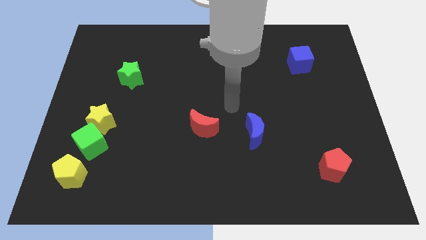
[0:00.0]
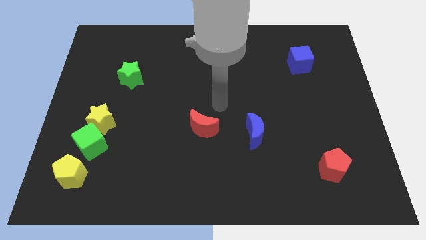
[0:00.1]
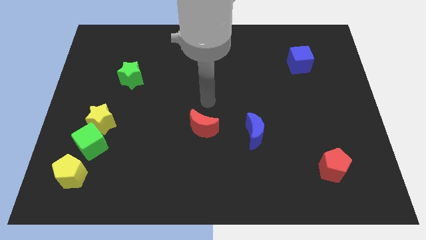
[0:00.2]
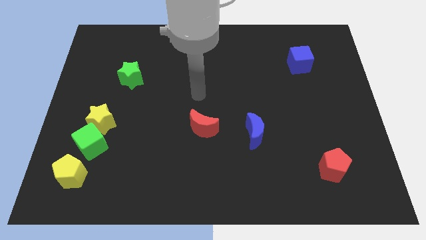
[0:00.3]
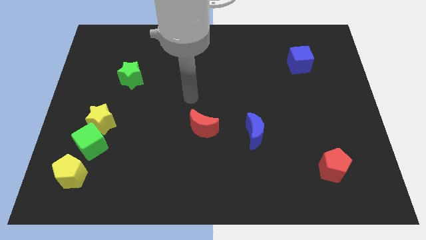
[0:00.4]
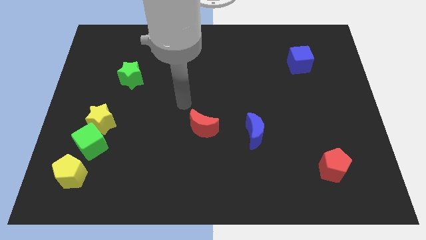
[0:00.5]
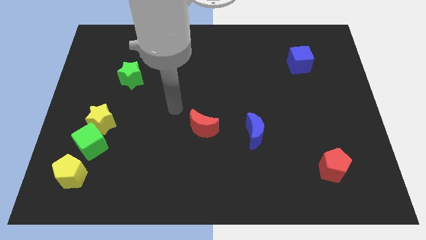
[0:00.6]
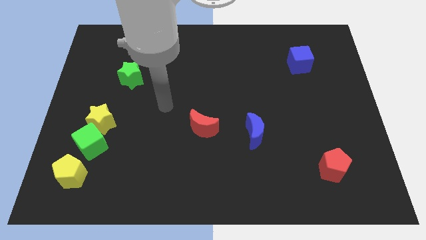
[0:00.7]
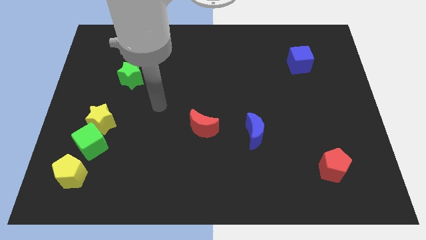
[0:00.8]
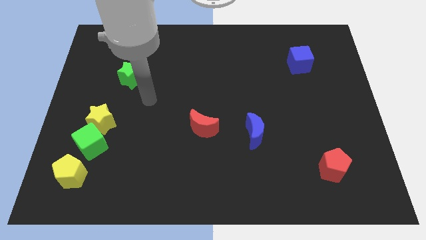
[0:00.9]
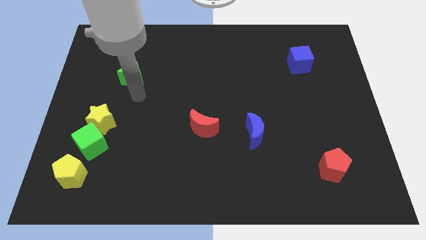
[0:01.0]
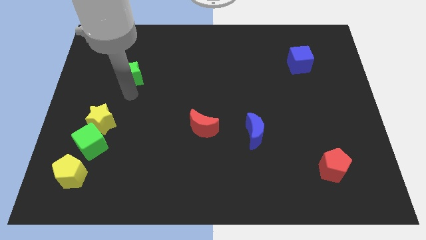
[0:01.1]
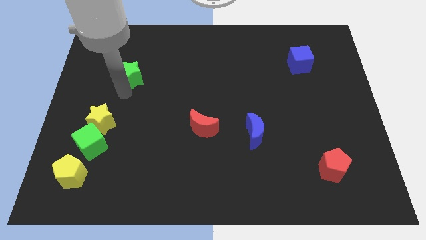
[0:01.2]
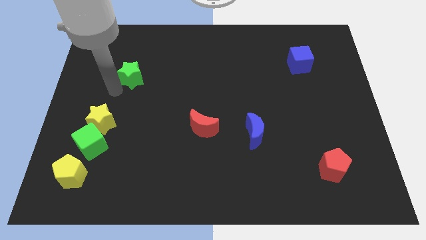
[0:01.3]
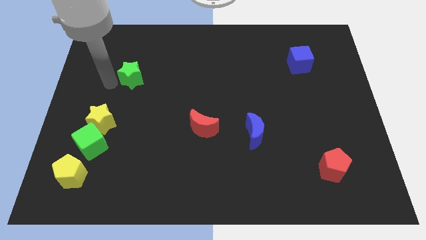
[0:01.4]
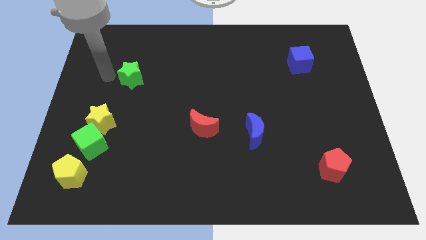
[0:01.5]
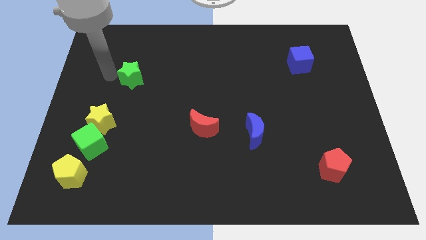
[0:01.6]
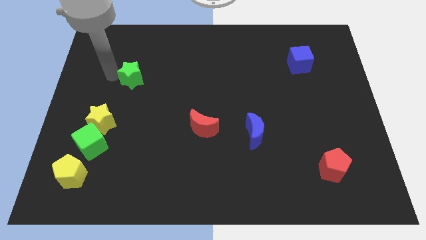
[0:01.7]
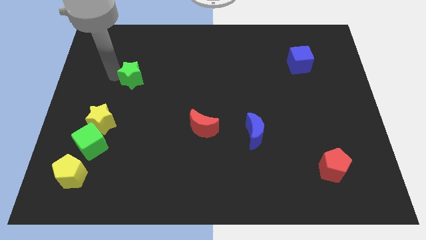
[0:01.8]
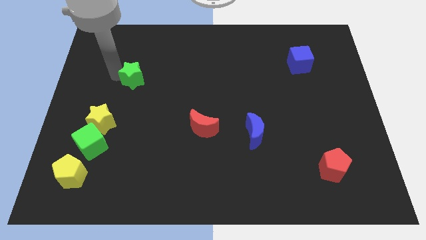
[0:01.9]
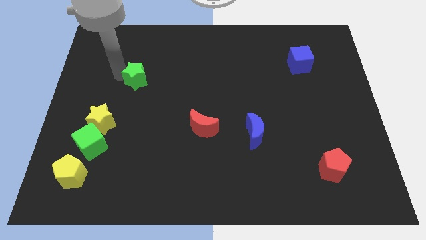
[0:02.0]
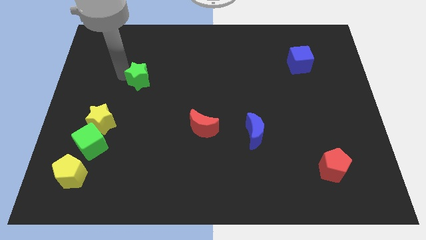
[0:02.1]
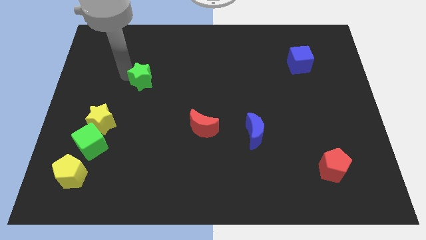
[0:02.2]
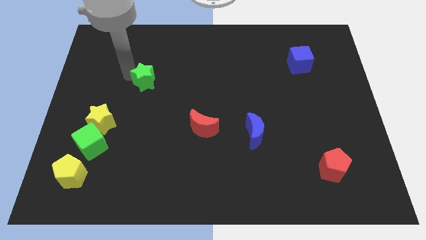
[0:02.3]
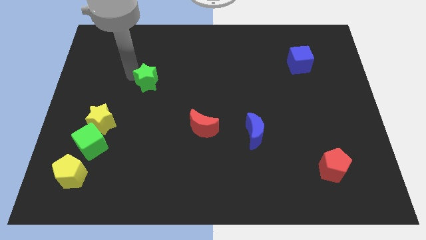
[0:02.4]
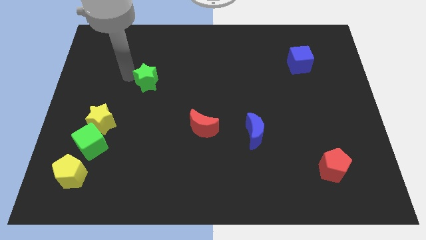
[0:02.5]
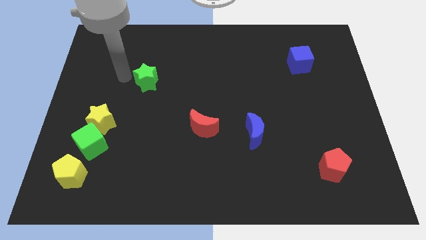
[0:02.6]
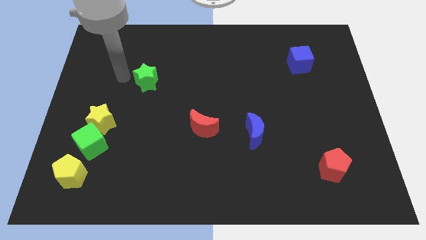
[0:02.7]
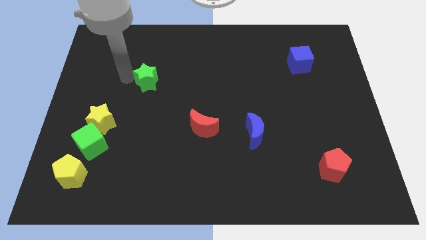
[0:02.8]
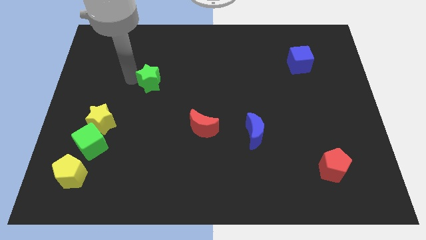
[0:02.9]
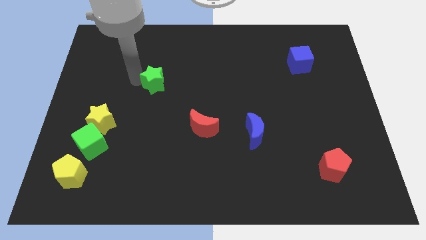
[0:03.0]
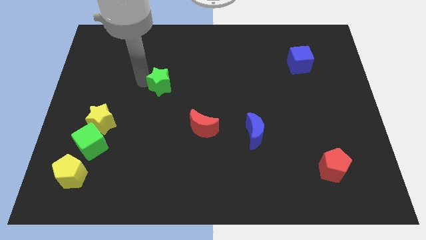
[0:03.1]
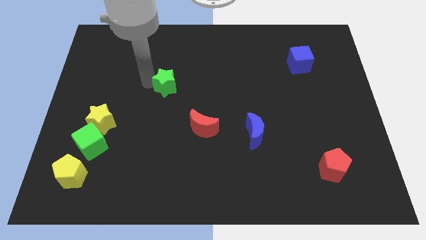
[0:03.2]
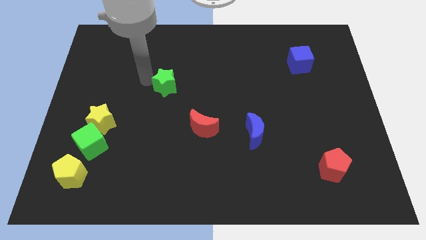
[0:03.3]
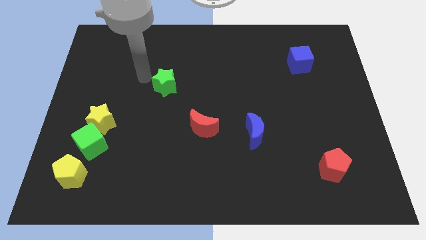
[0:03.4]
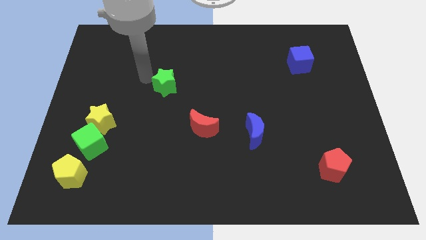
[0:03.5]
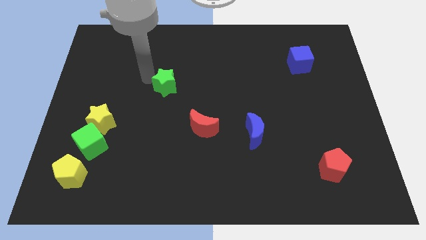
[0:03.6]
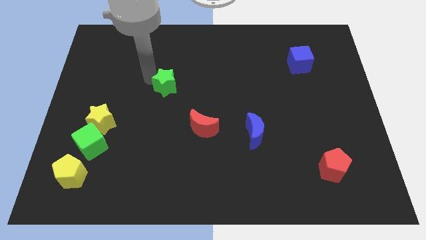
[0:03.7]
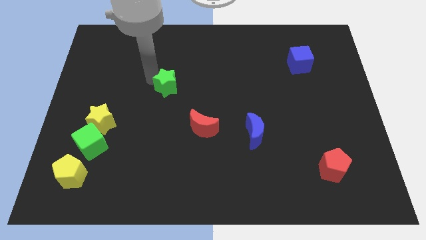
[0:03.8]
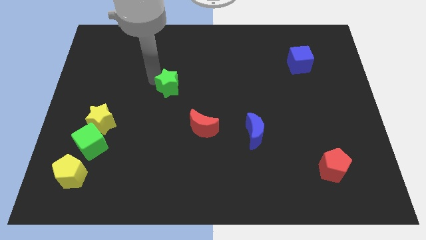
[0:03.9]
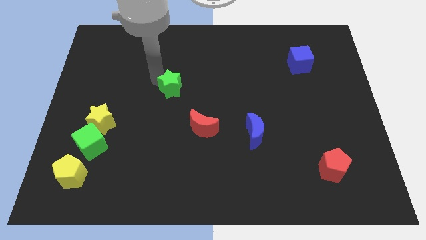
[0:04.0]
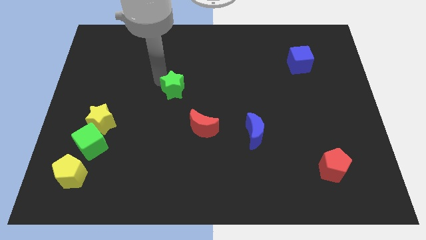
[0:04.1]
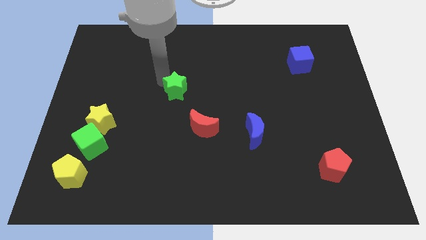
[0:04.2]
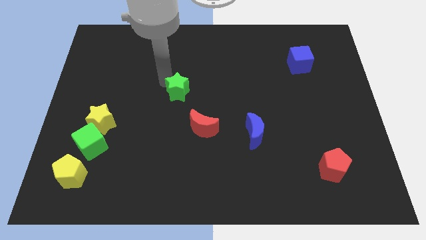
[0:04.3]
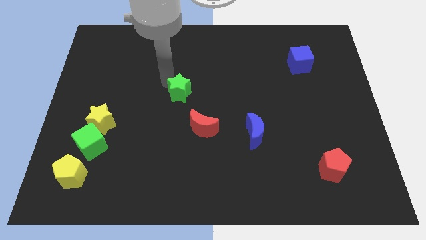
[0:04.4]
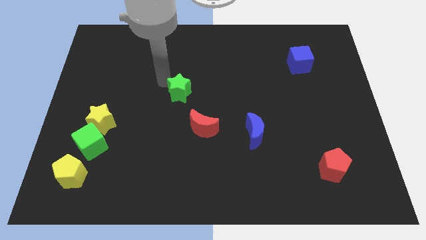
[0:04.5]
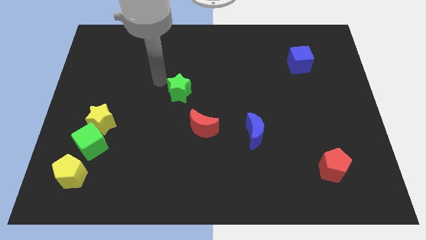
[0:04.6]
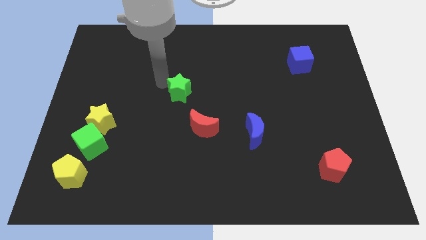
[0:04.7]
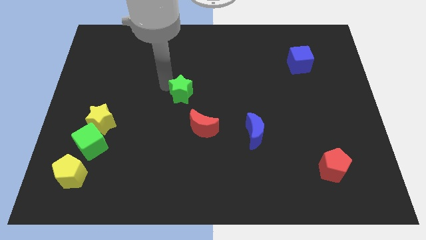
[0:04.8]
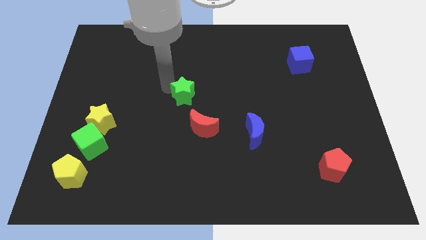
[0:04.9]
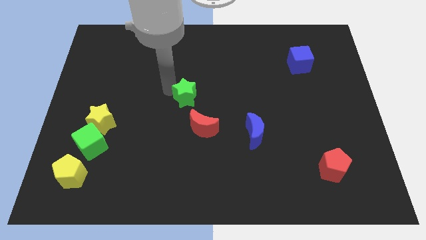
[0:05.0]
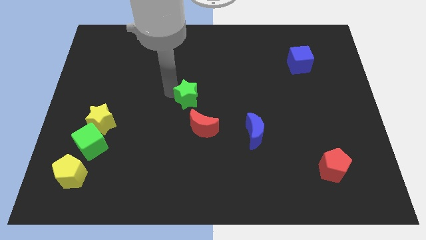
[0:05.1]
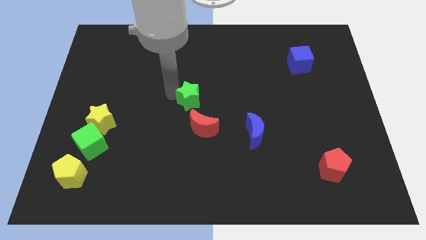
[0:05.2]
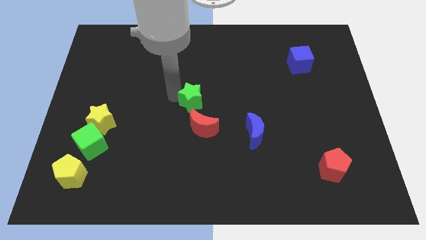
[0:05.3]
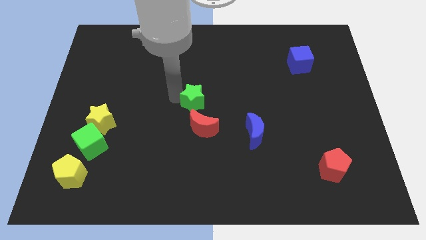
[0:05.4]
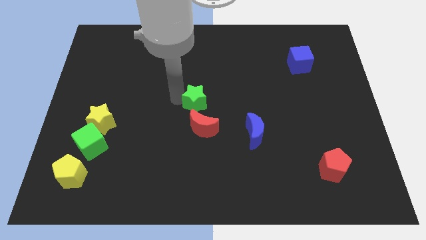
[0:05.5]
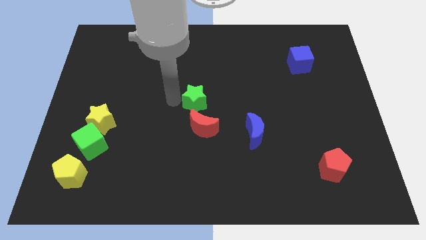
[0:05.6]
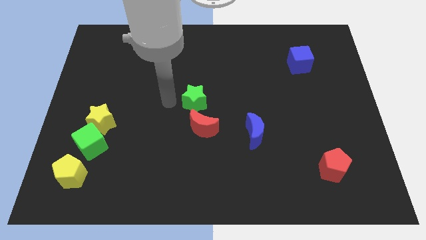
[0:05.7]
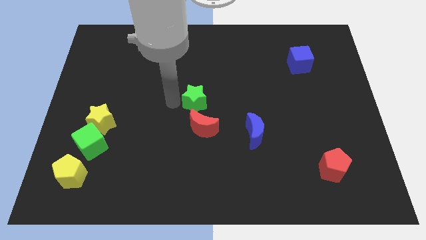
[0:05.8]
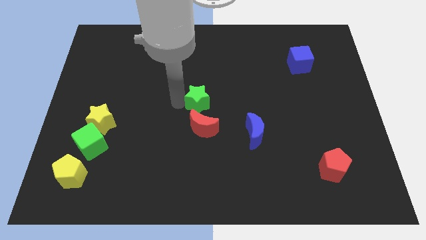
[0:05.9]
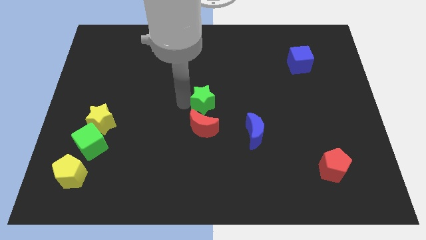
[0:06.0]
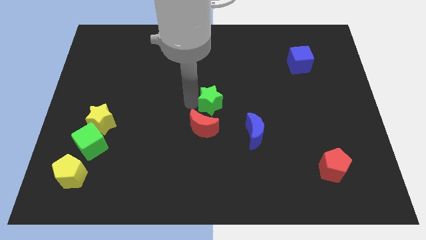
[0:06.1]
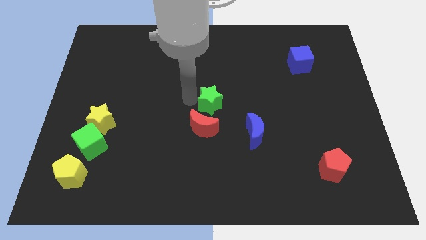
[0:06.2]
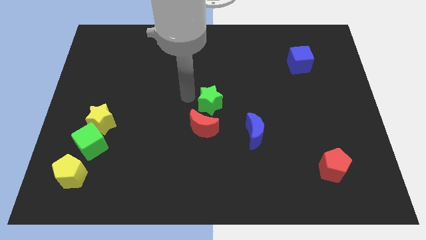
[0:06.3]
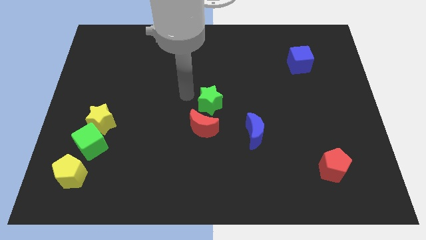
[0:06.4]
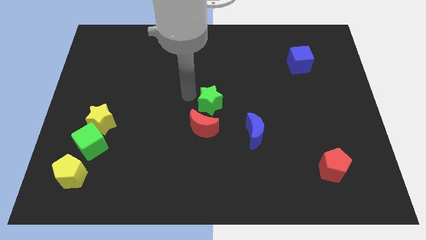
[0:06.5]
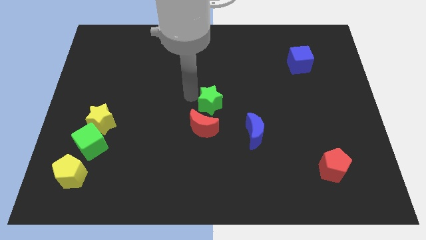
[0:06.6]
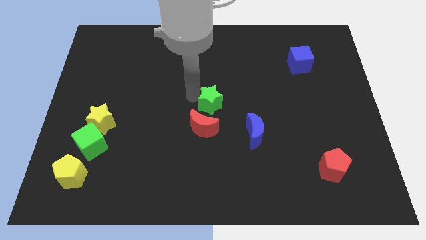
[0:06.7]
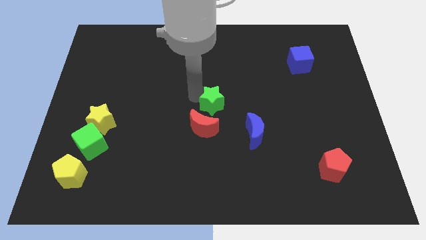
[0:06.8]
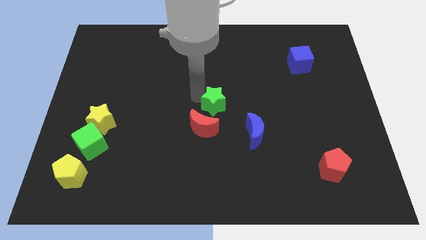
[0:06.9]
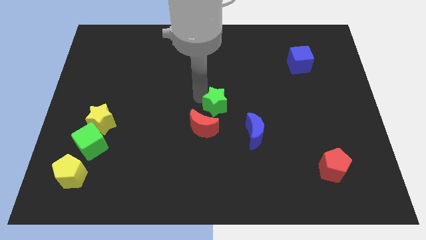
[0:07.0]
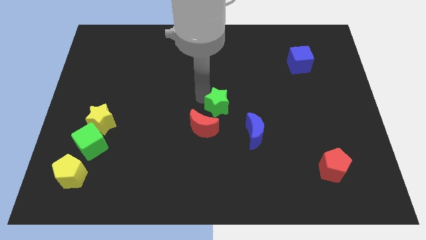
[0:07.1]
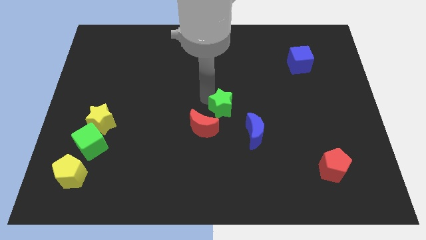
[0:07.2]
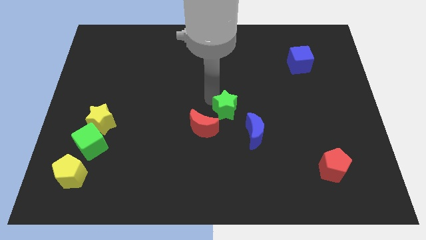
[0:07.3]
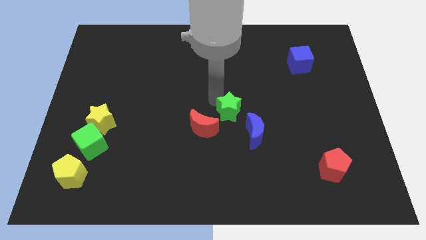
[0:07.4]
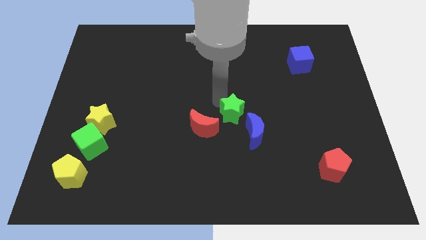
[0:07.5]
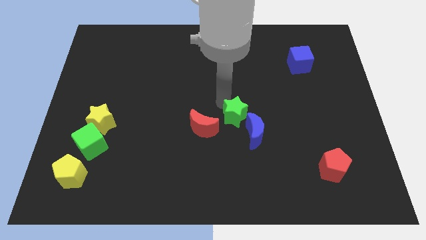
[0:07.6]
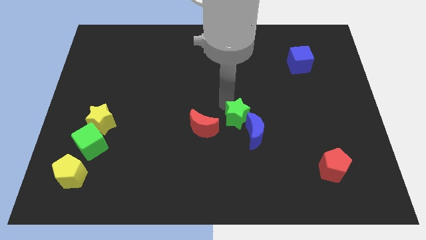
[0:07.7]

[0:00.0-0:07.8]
slide the green star next to the blue moon
